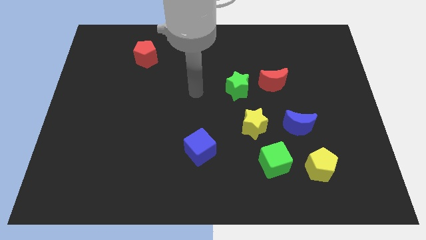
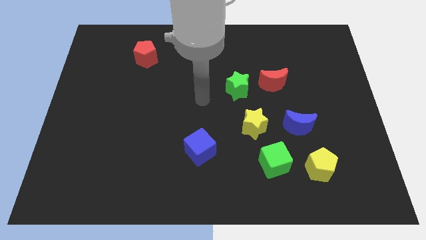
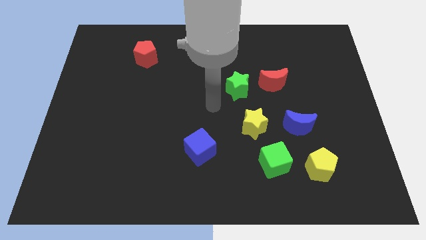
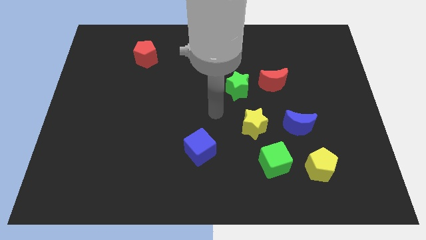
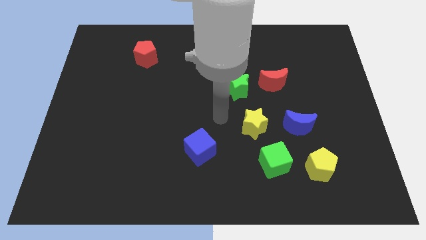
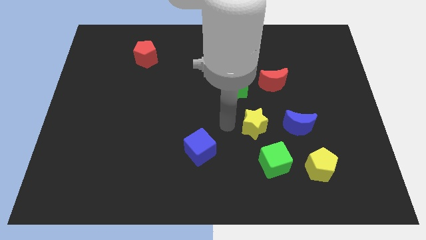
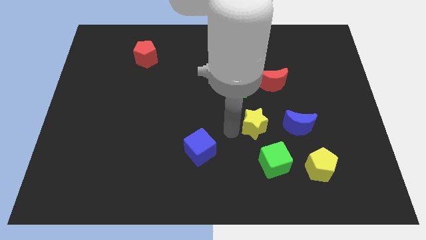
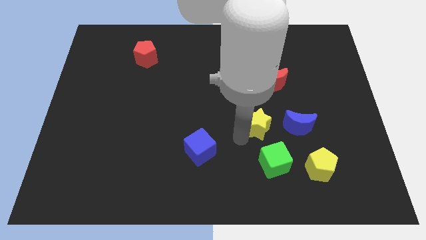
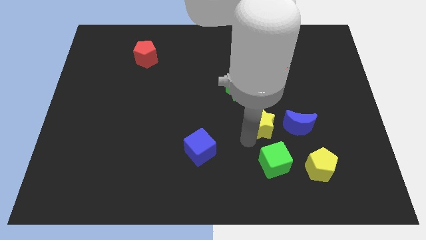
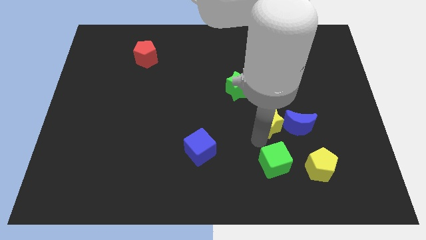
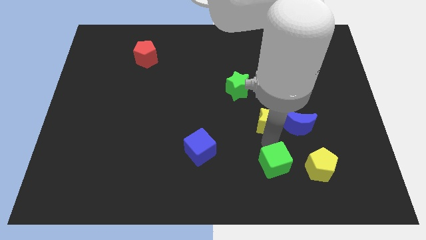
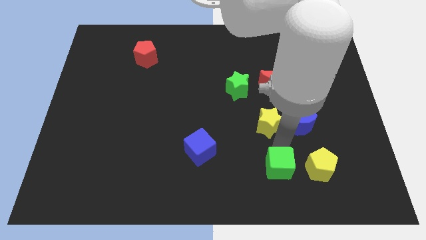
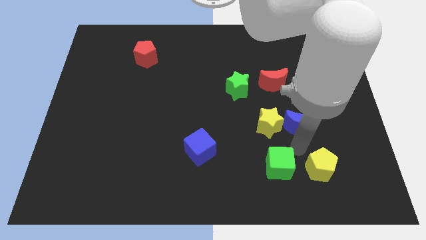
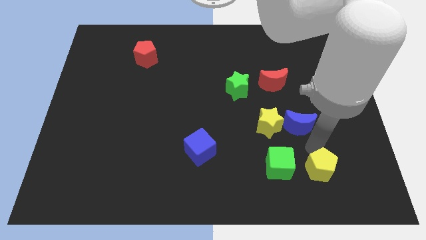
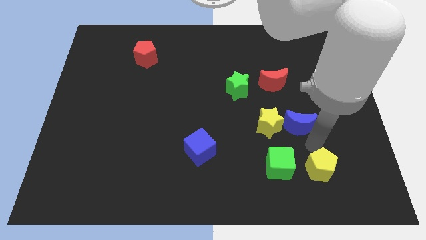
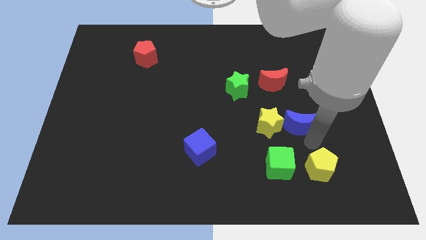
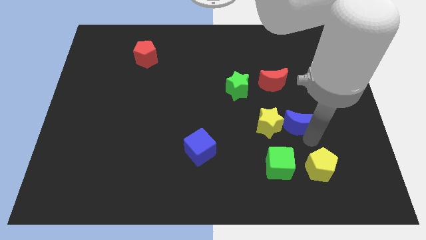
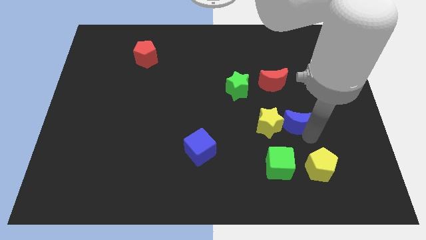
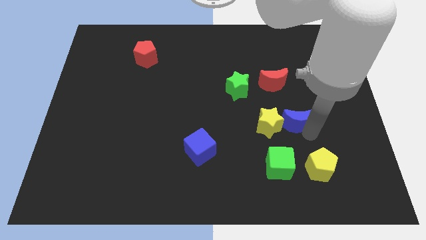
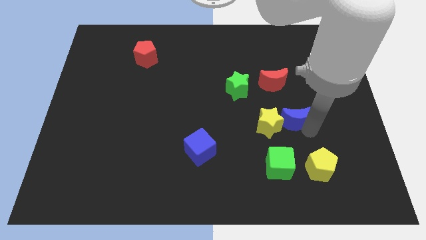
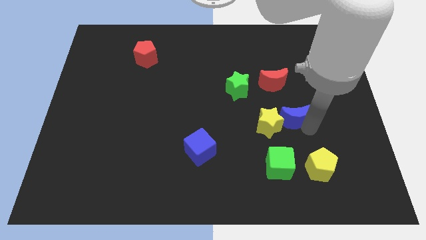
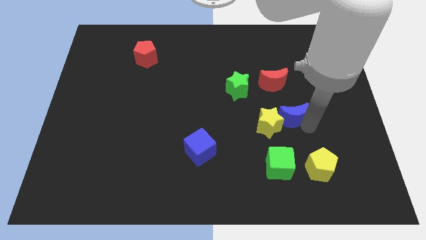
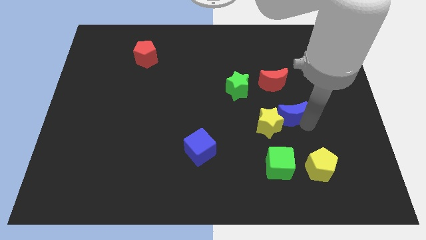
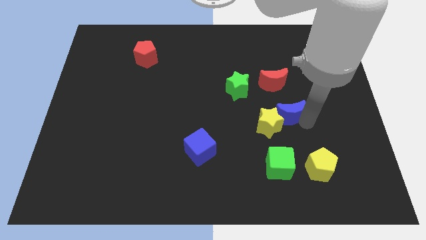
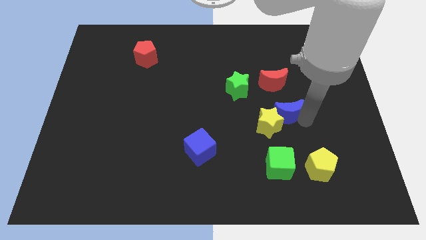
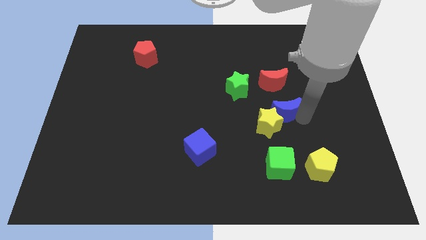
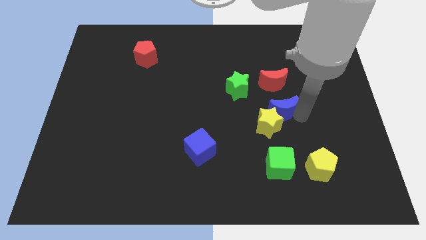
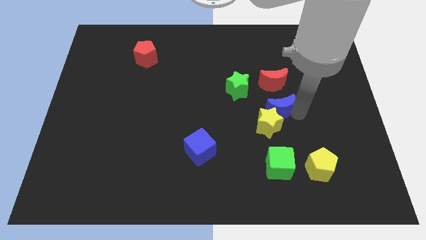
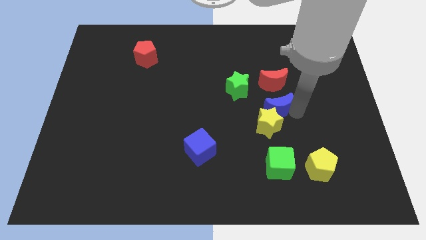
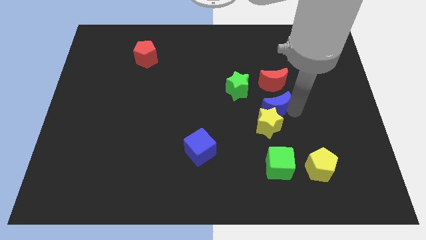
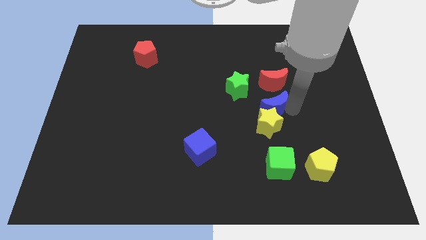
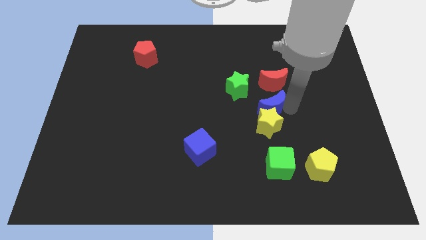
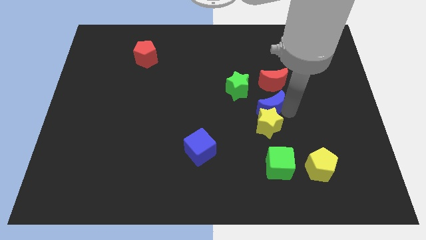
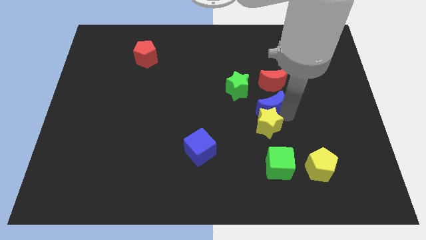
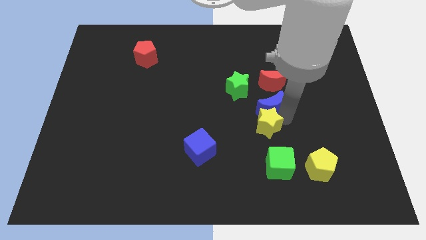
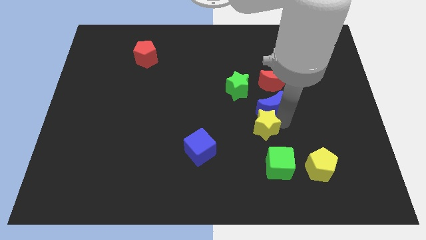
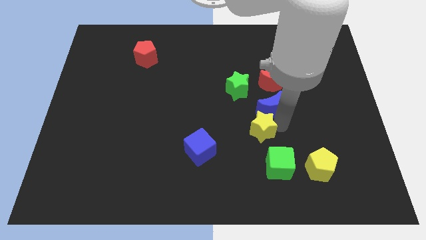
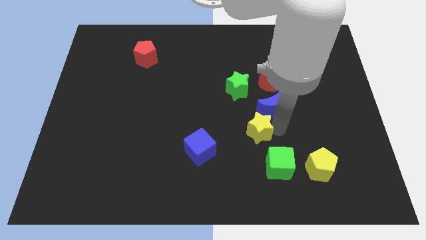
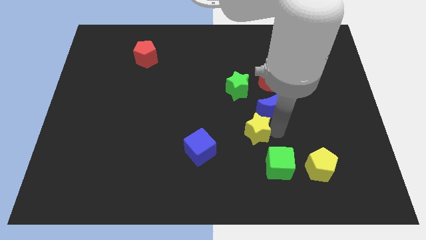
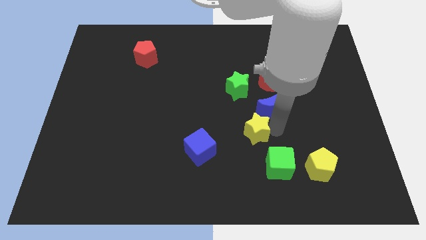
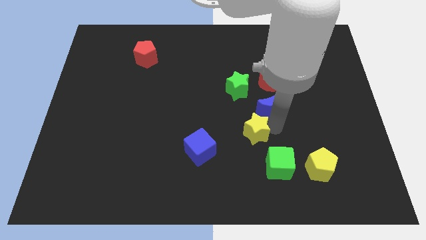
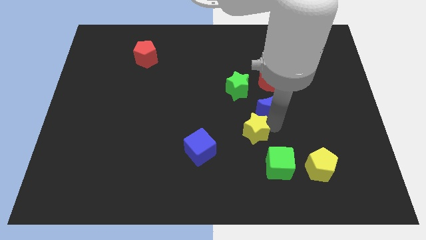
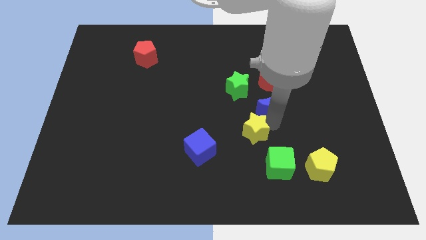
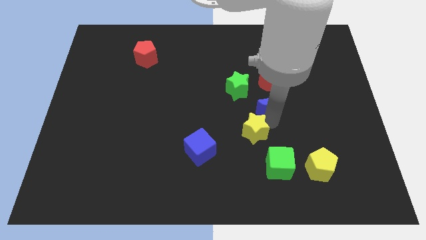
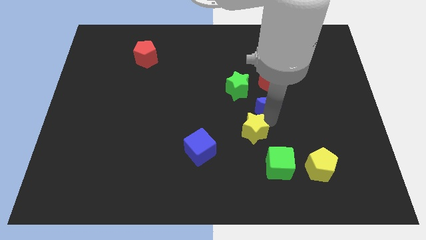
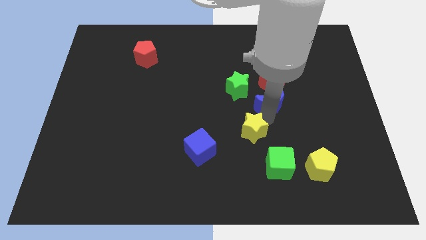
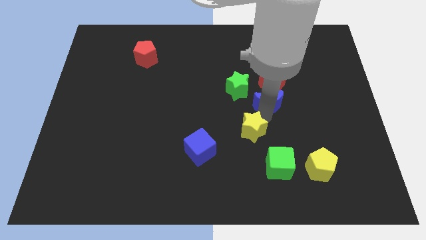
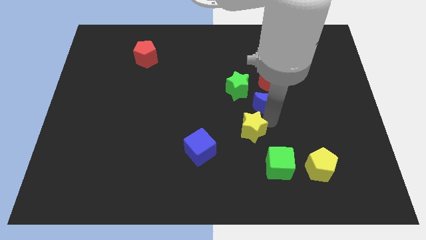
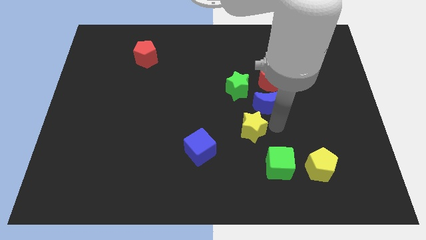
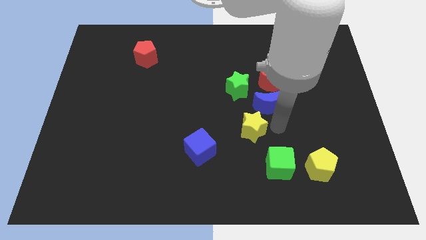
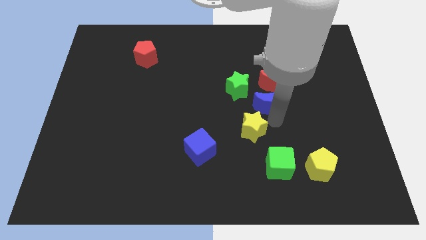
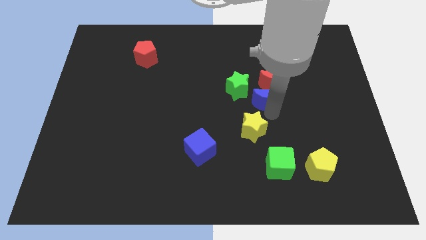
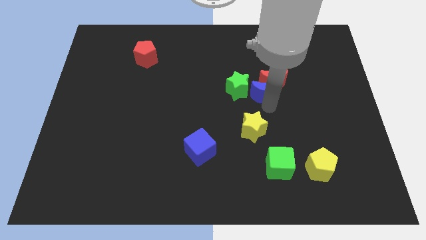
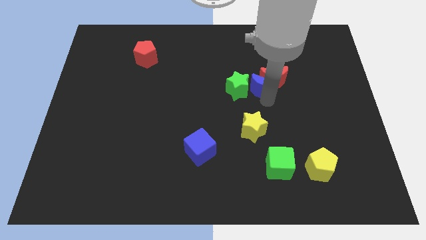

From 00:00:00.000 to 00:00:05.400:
push the blue moon to the top right side of the green star

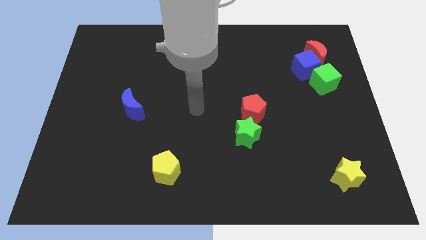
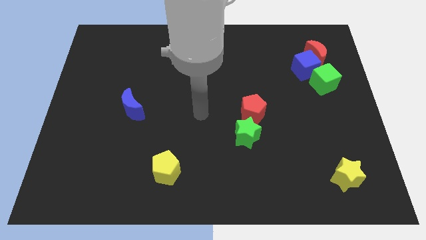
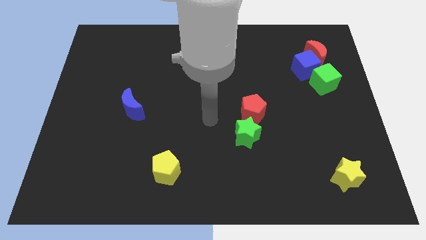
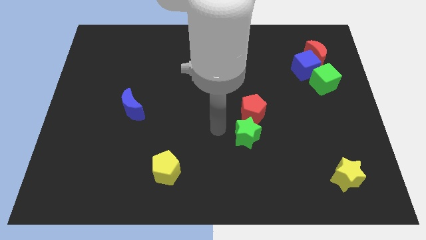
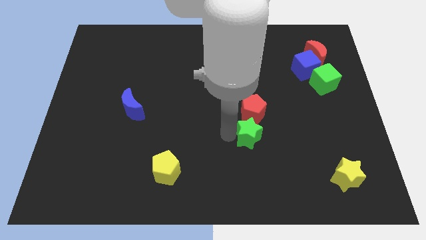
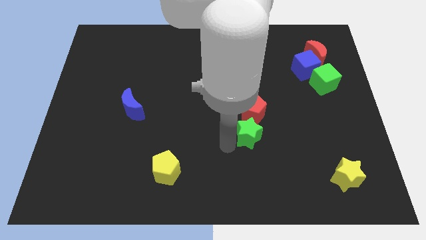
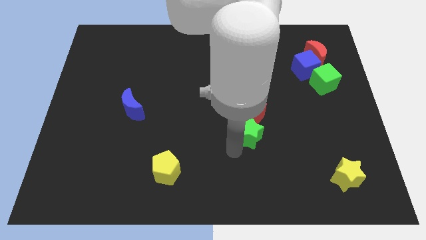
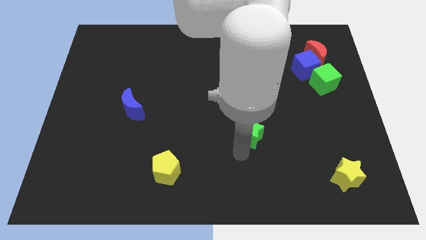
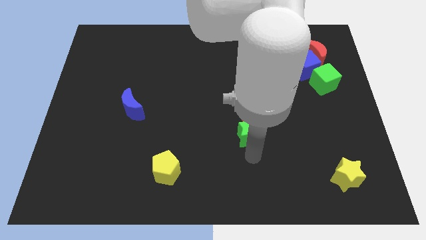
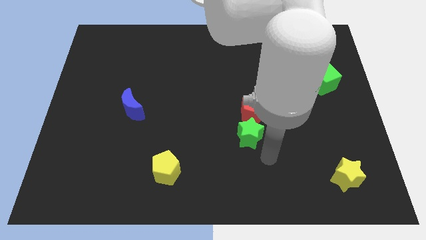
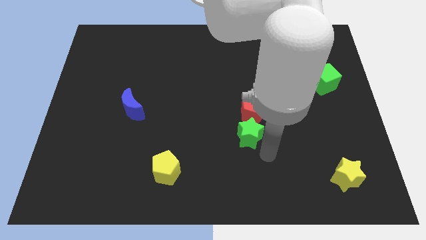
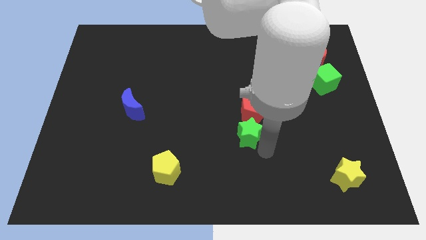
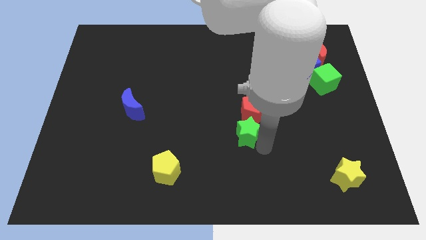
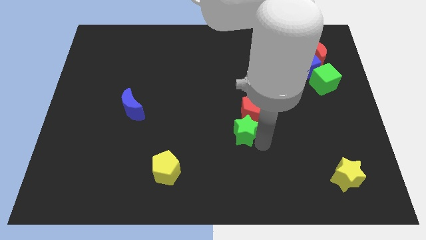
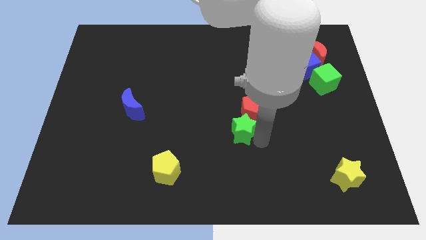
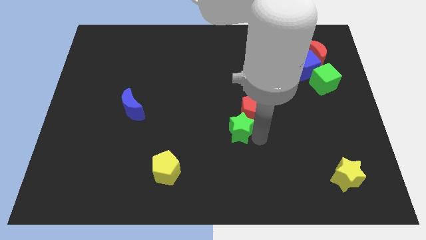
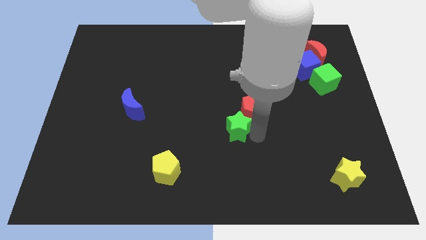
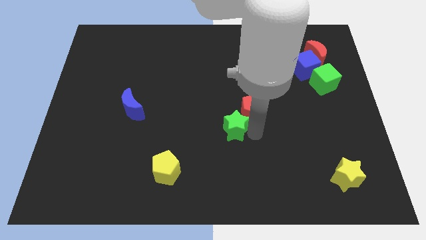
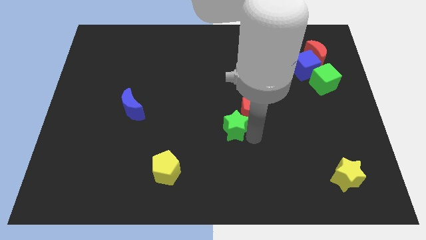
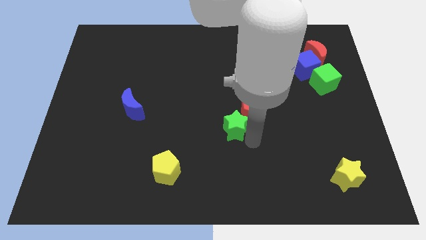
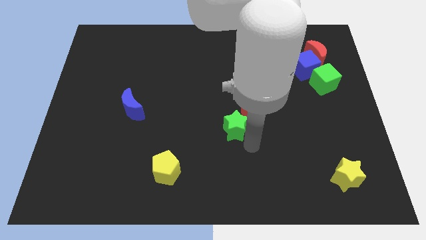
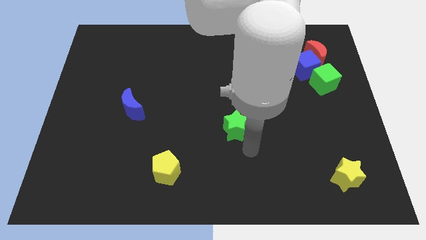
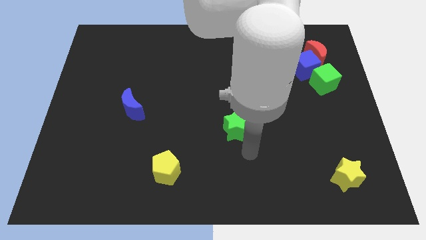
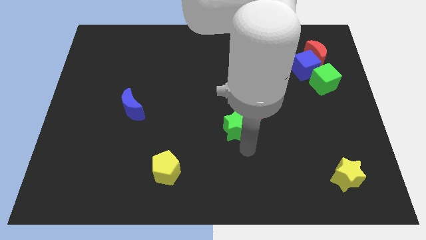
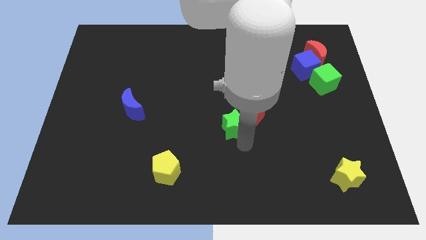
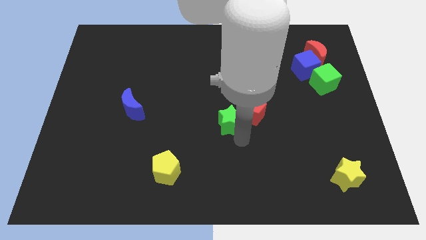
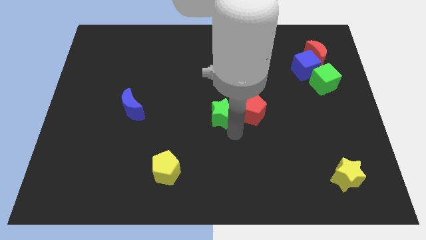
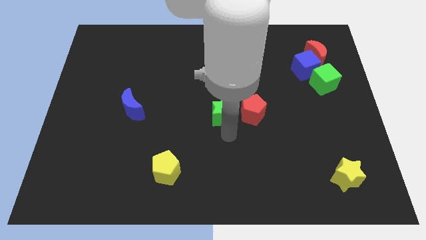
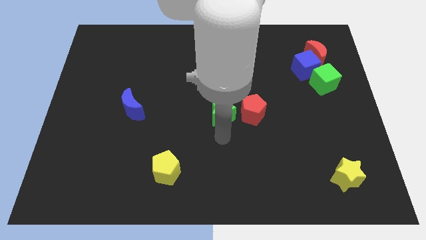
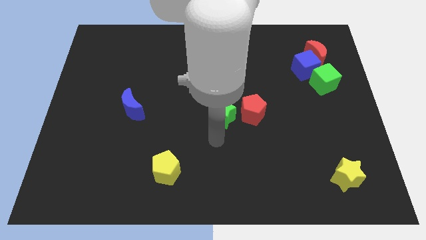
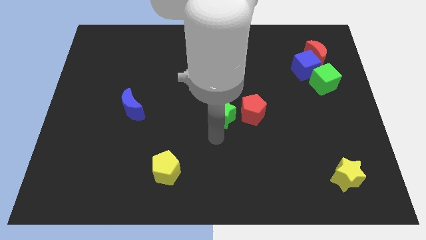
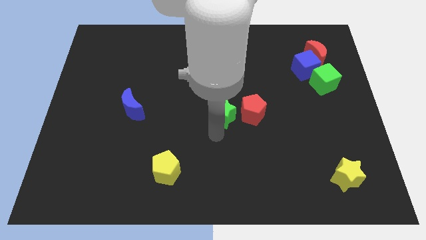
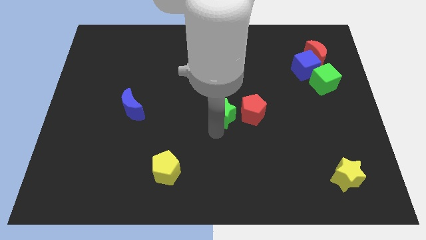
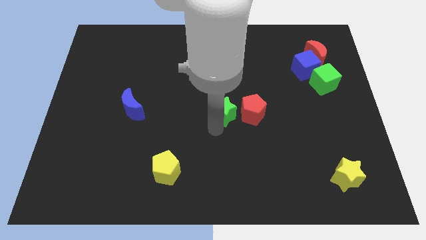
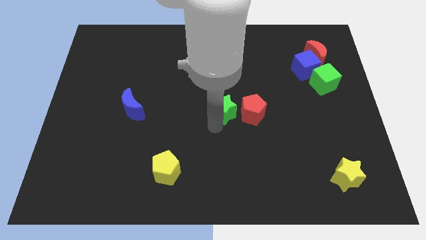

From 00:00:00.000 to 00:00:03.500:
put the green star to the top left side of the red pentagon
